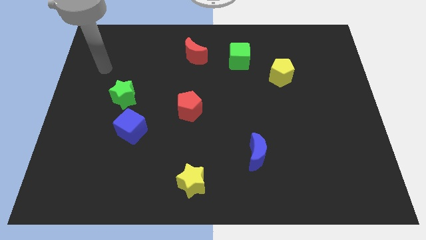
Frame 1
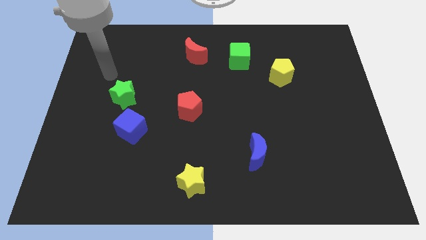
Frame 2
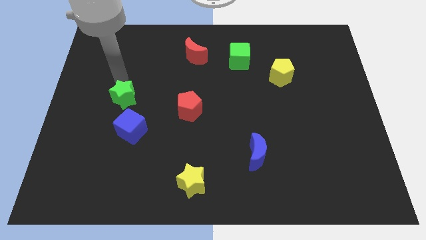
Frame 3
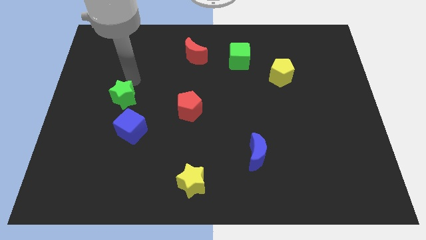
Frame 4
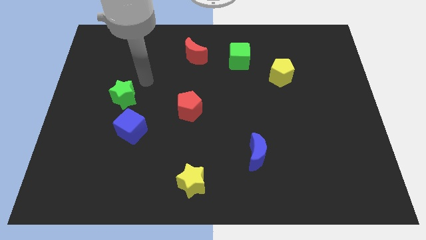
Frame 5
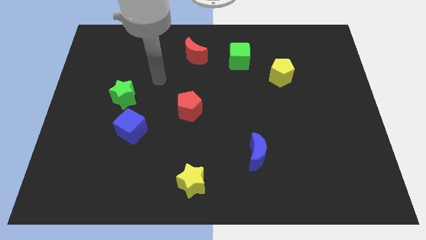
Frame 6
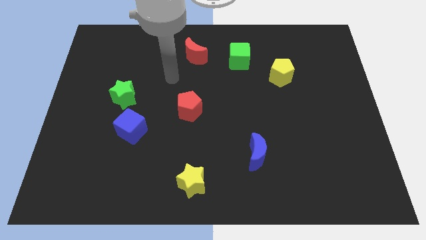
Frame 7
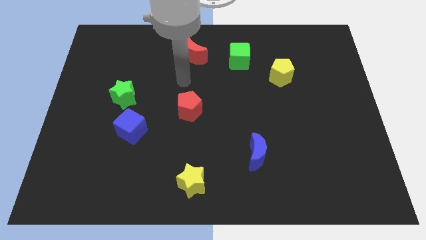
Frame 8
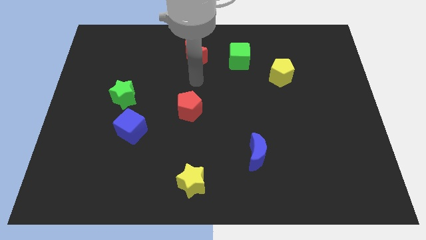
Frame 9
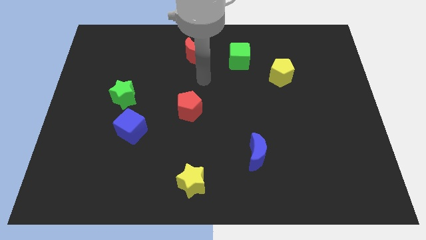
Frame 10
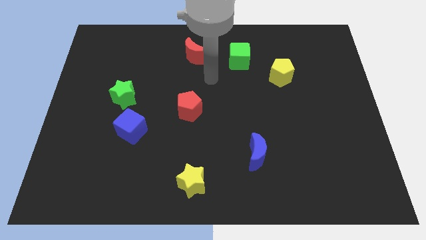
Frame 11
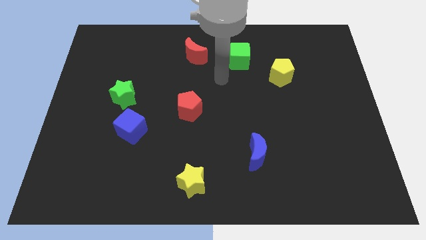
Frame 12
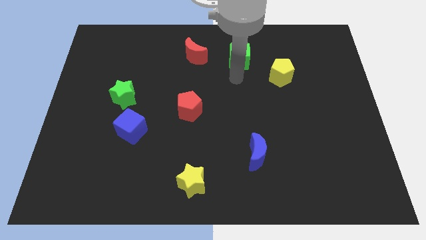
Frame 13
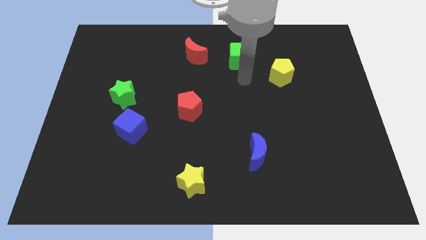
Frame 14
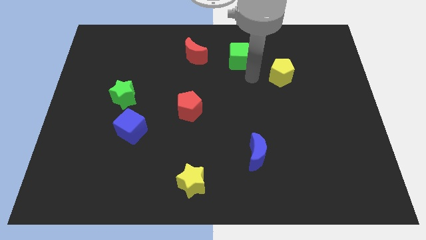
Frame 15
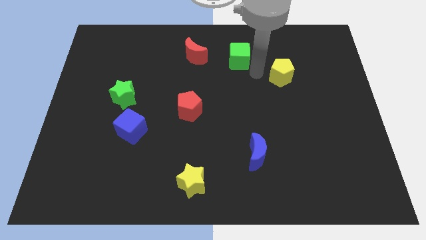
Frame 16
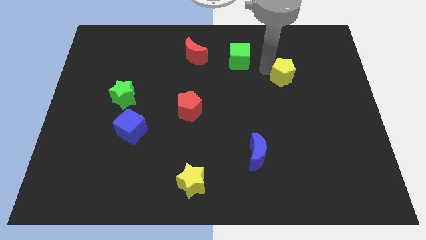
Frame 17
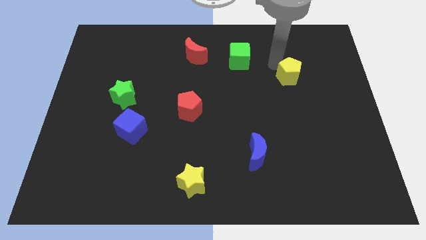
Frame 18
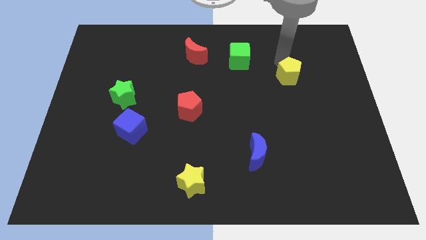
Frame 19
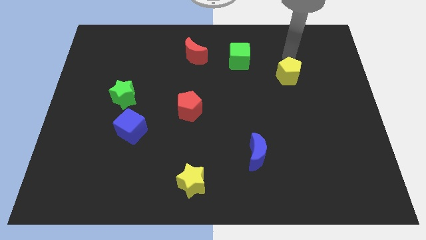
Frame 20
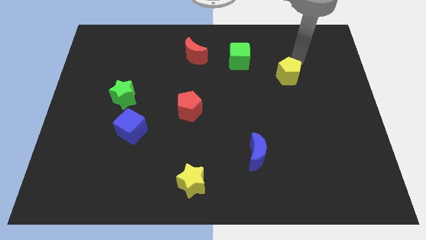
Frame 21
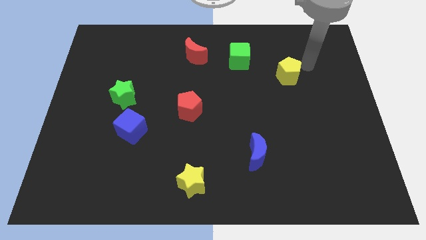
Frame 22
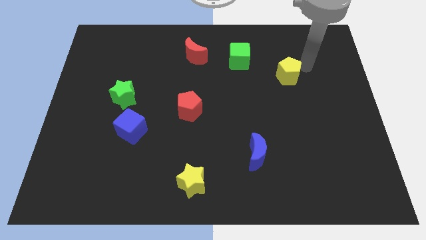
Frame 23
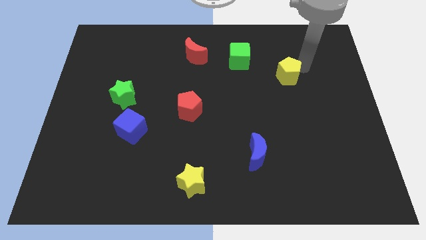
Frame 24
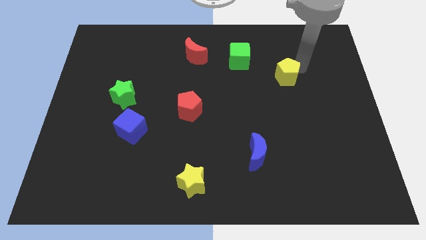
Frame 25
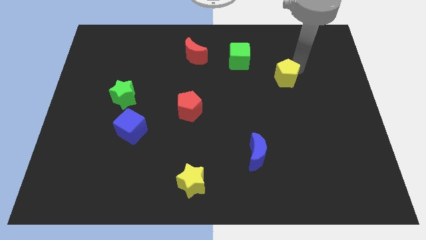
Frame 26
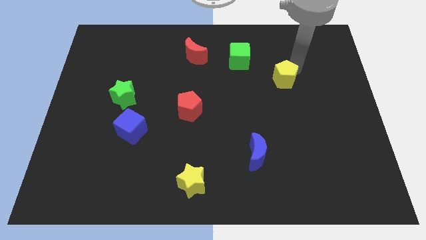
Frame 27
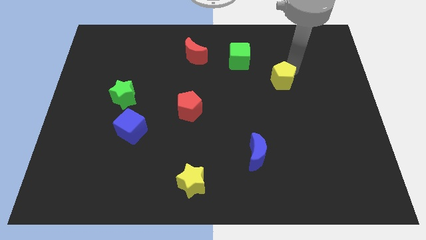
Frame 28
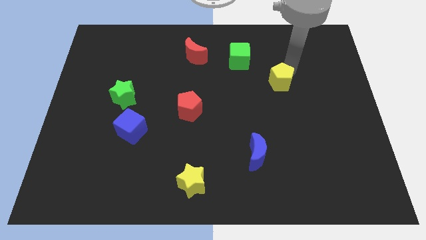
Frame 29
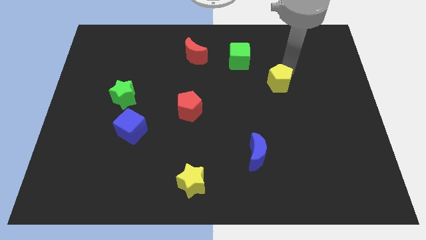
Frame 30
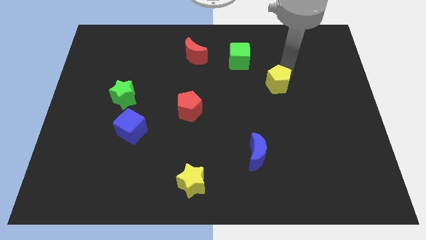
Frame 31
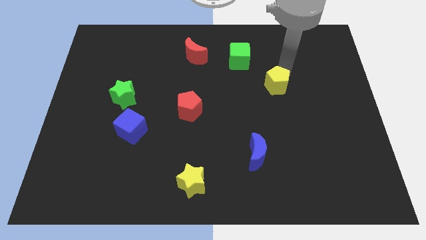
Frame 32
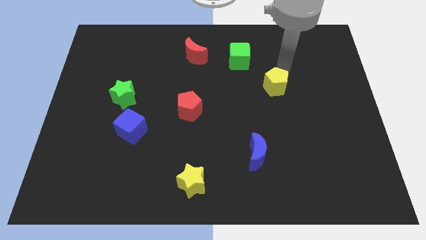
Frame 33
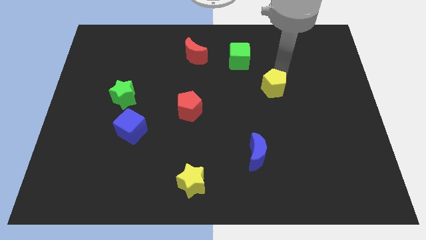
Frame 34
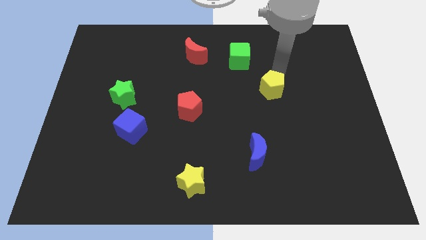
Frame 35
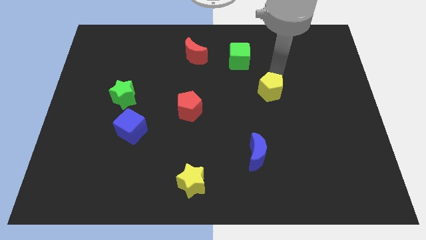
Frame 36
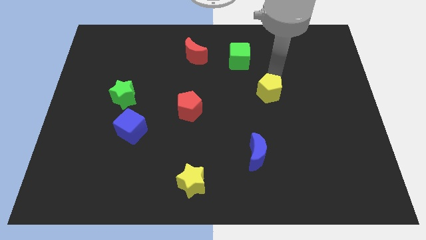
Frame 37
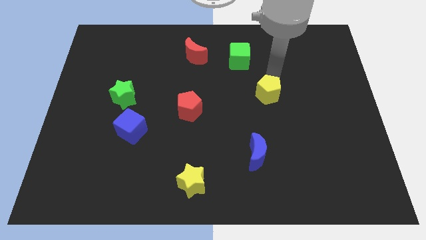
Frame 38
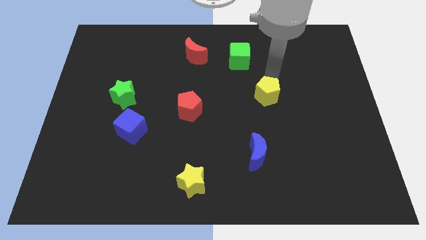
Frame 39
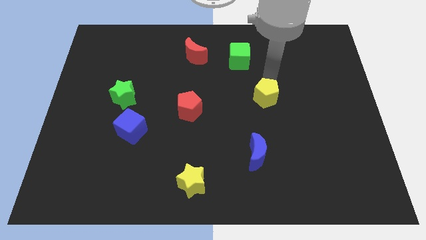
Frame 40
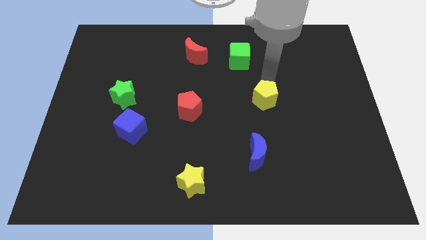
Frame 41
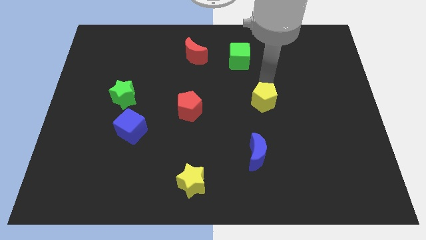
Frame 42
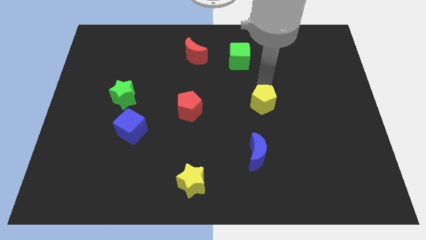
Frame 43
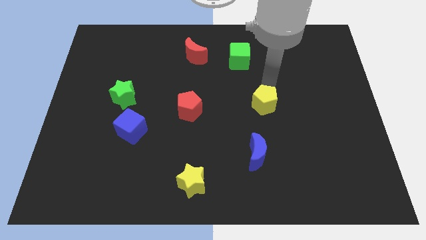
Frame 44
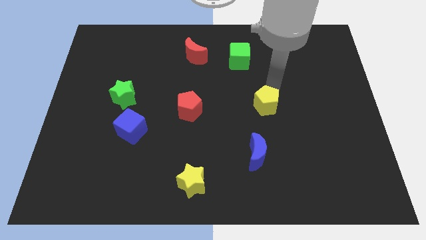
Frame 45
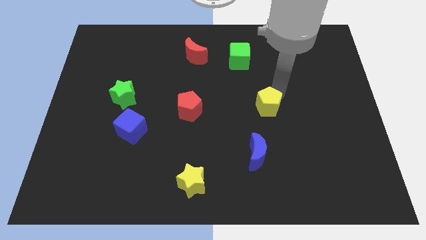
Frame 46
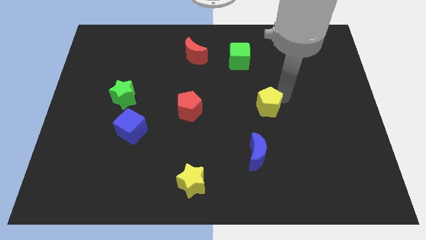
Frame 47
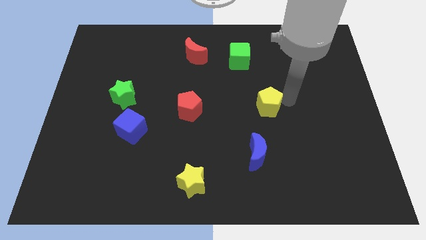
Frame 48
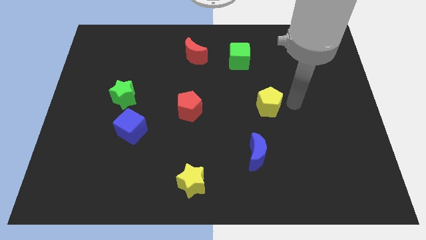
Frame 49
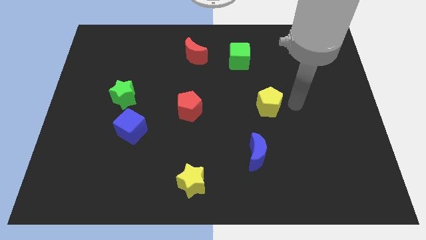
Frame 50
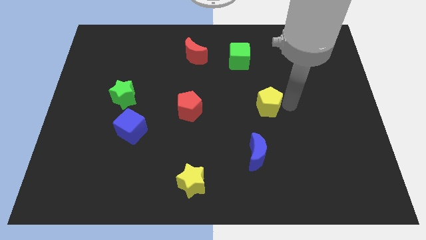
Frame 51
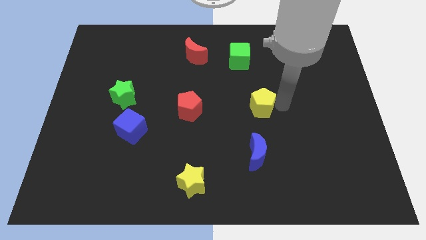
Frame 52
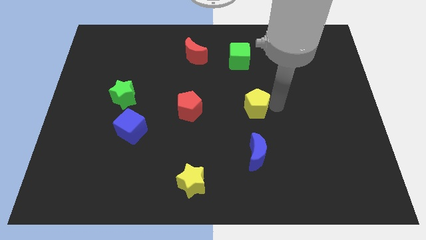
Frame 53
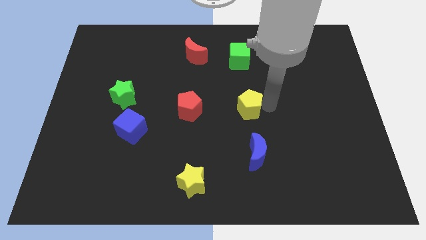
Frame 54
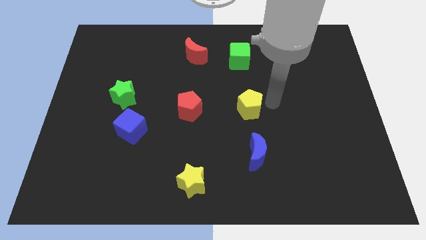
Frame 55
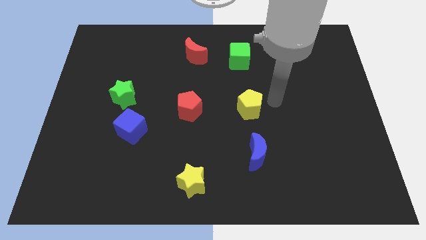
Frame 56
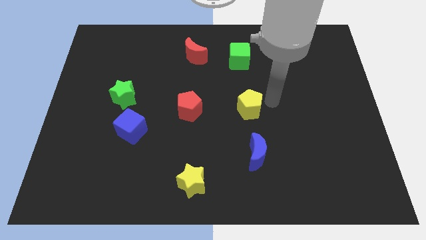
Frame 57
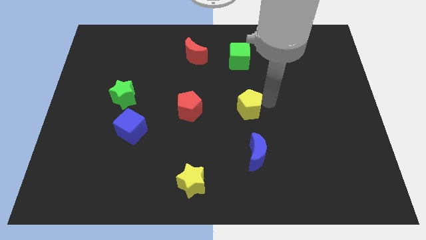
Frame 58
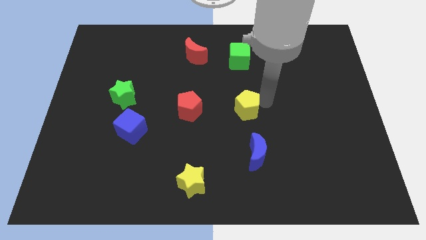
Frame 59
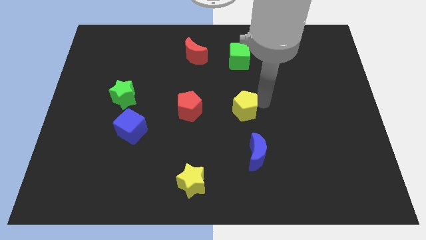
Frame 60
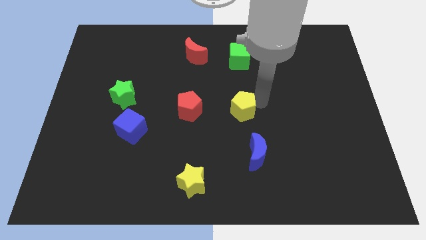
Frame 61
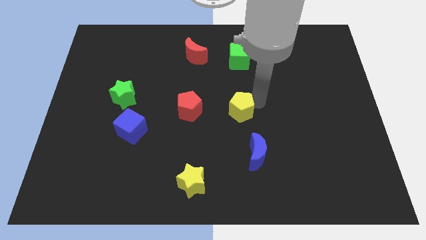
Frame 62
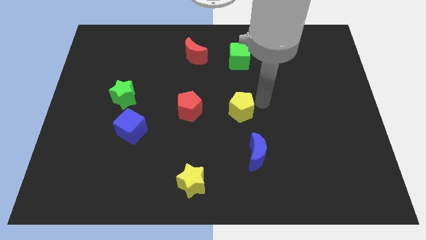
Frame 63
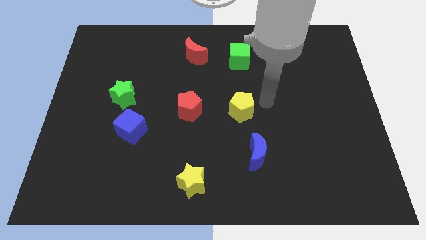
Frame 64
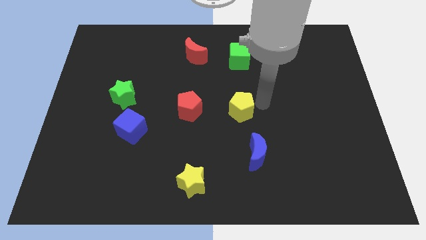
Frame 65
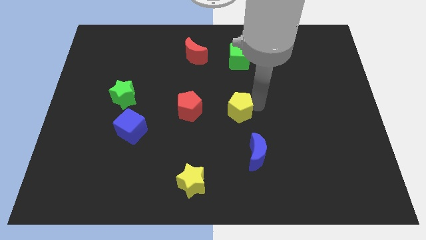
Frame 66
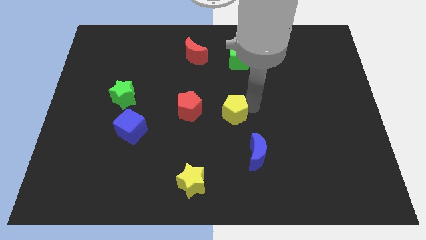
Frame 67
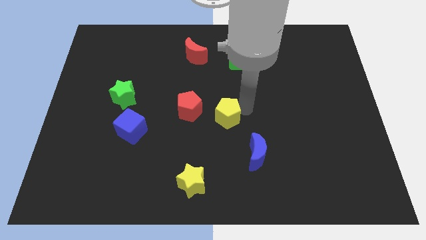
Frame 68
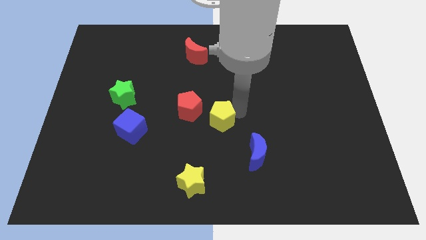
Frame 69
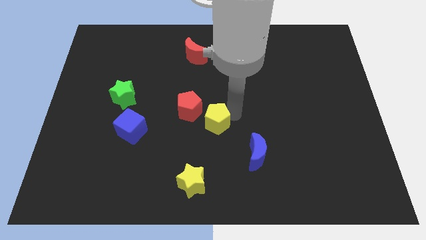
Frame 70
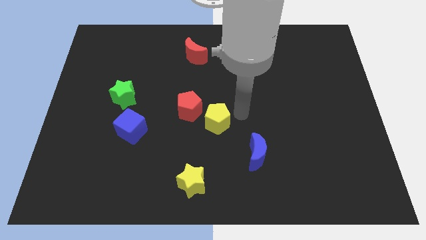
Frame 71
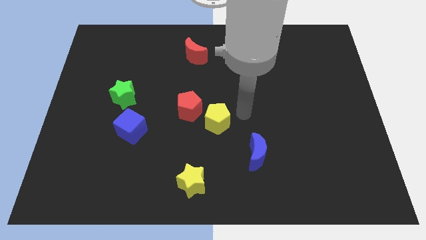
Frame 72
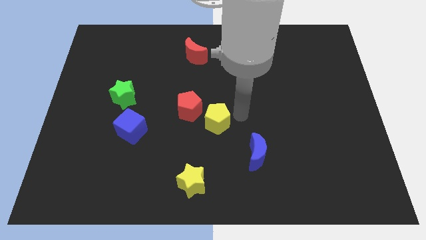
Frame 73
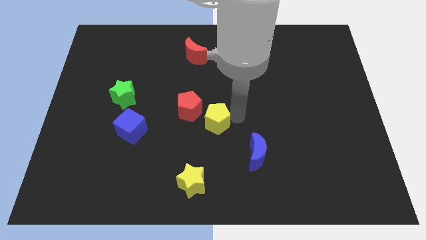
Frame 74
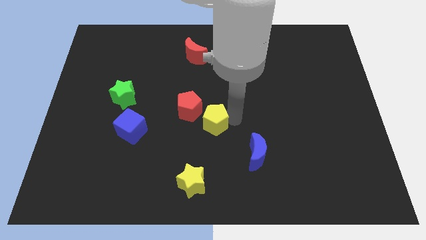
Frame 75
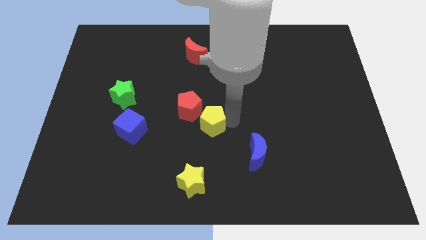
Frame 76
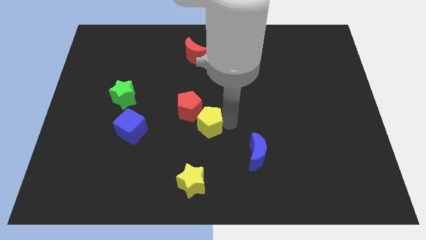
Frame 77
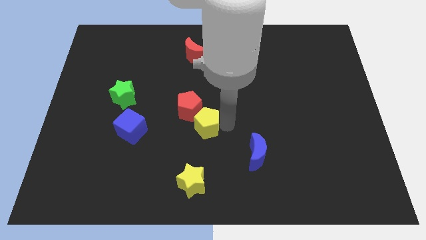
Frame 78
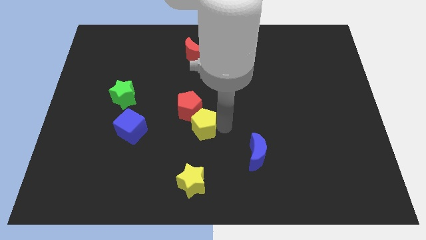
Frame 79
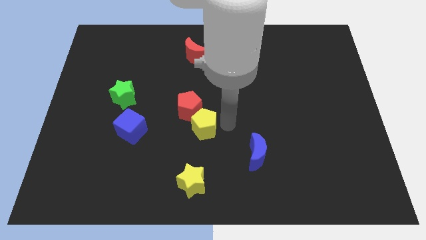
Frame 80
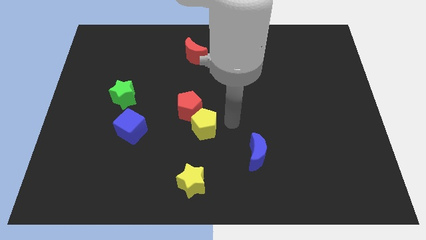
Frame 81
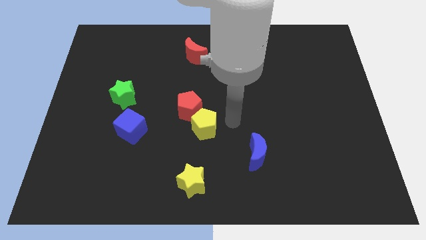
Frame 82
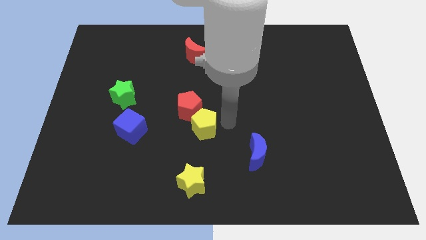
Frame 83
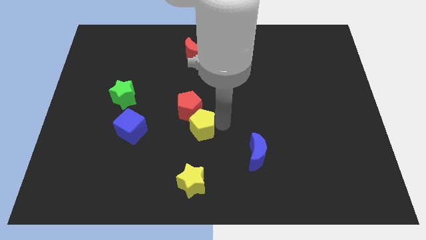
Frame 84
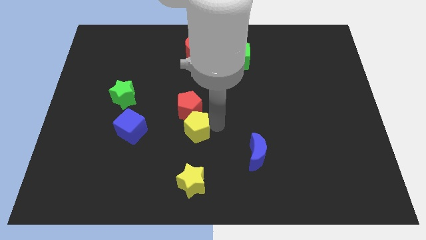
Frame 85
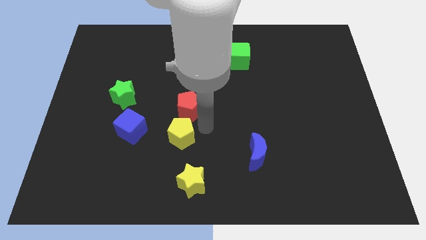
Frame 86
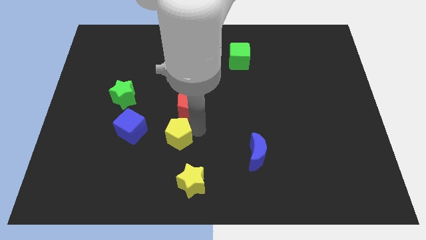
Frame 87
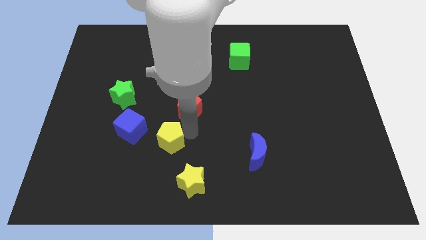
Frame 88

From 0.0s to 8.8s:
push the yellow pentagon diagonally down and to the right of the blue cube
